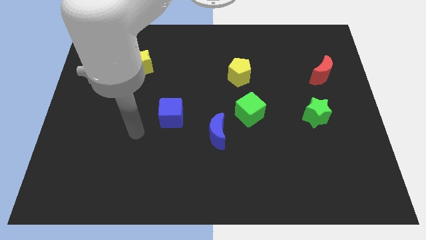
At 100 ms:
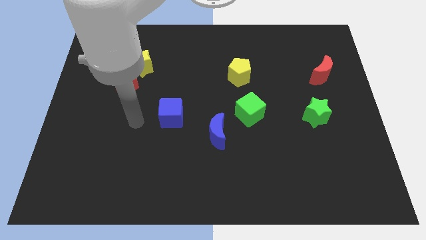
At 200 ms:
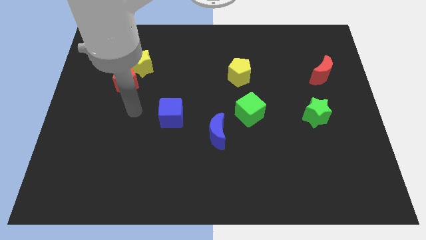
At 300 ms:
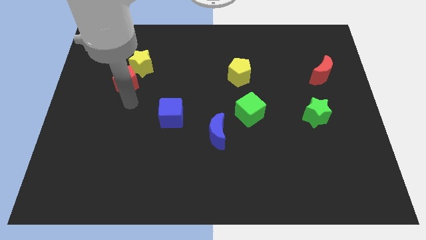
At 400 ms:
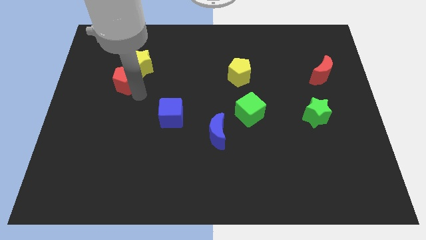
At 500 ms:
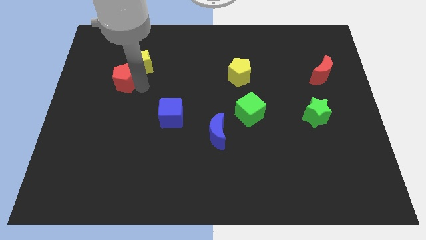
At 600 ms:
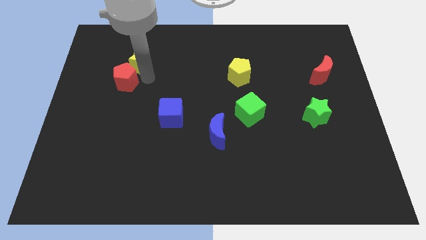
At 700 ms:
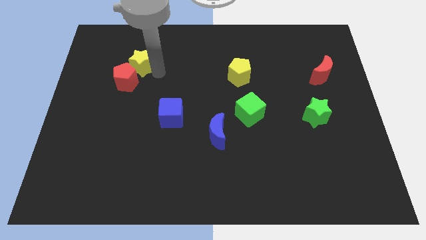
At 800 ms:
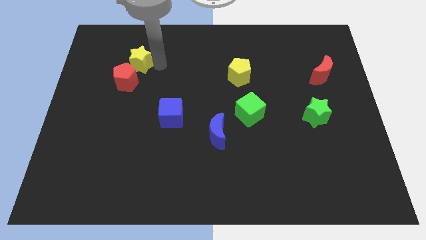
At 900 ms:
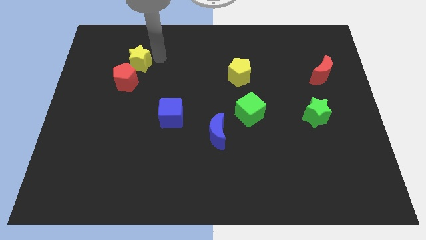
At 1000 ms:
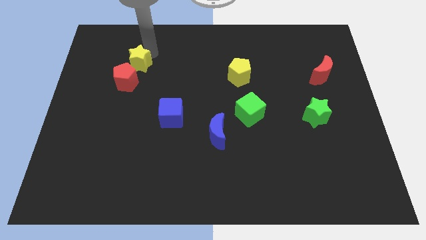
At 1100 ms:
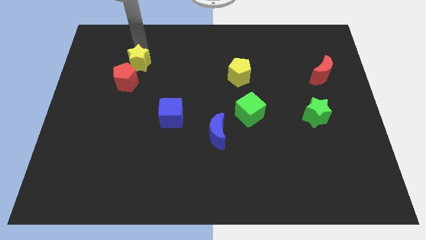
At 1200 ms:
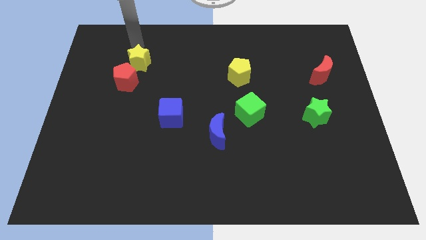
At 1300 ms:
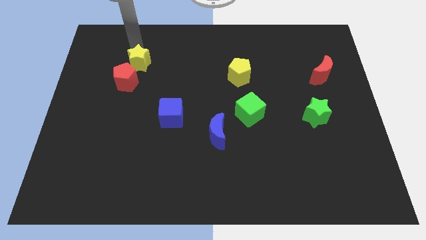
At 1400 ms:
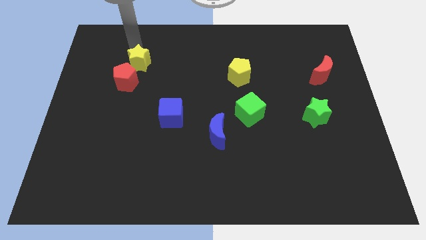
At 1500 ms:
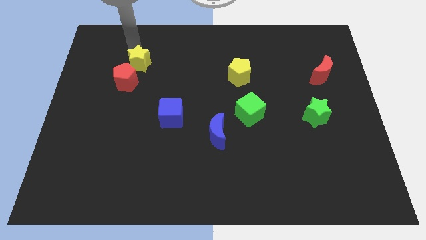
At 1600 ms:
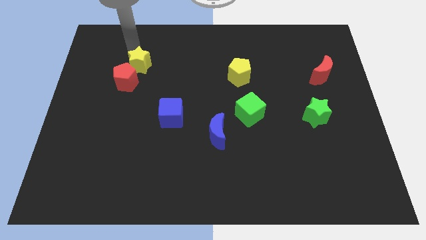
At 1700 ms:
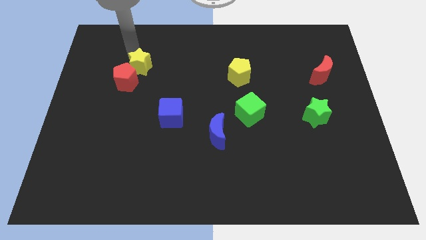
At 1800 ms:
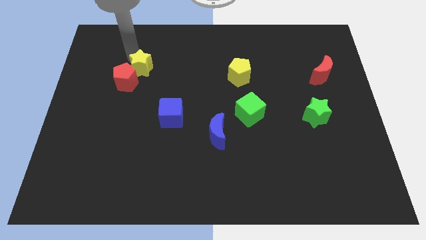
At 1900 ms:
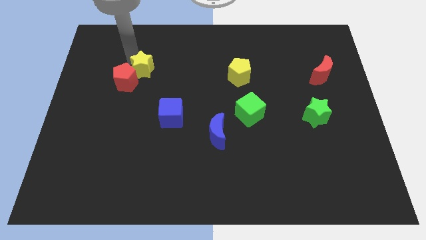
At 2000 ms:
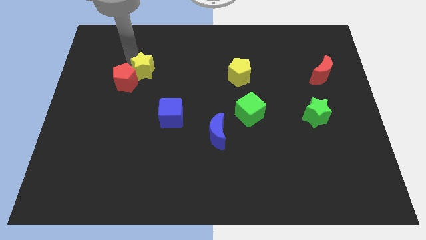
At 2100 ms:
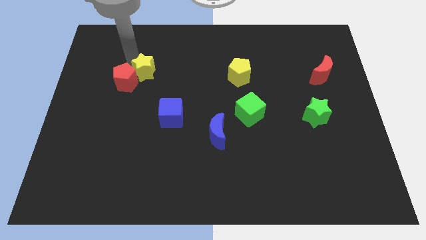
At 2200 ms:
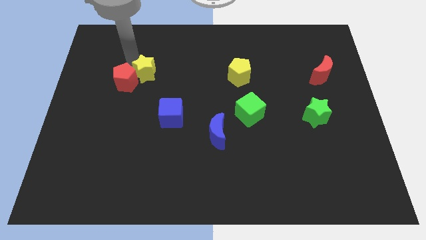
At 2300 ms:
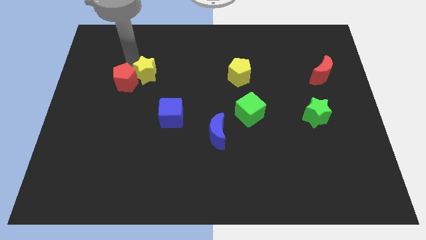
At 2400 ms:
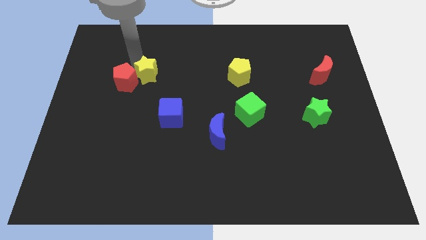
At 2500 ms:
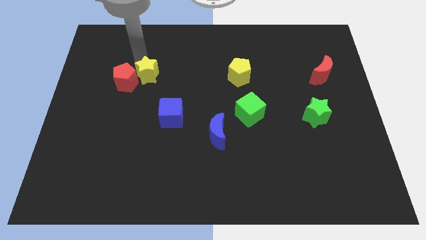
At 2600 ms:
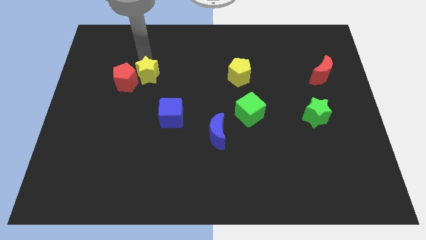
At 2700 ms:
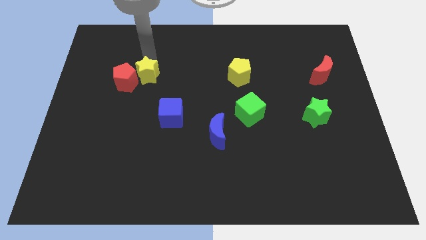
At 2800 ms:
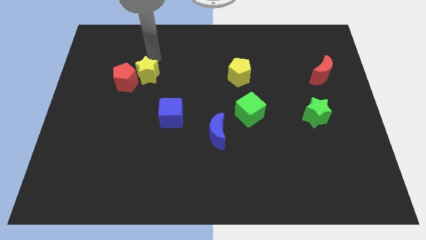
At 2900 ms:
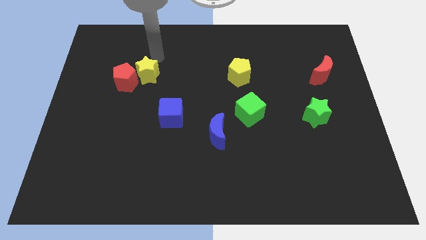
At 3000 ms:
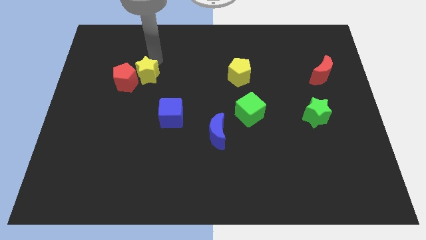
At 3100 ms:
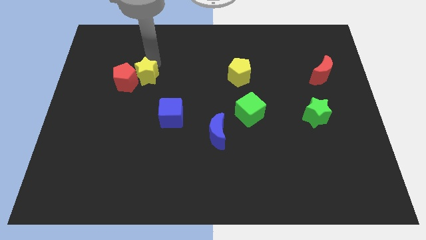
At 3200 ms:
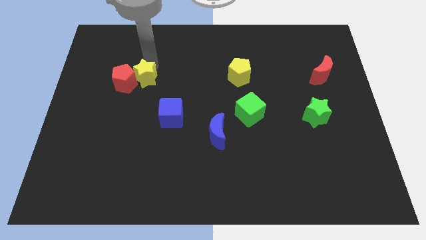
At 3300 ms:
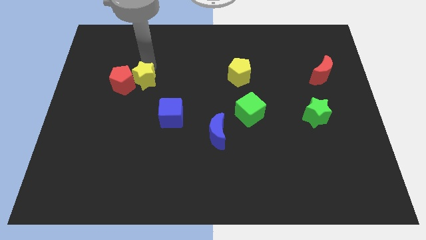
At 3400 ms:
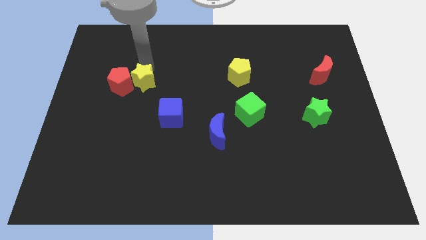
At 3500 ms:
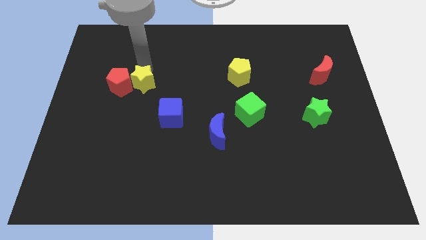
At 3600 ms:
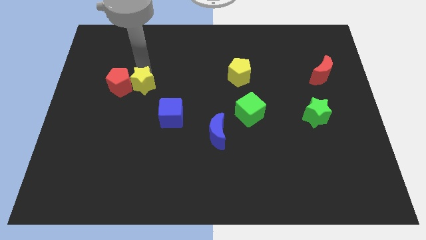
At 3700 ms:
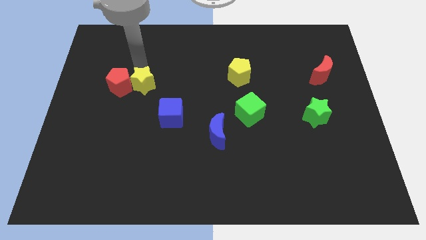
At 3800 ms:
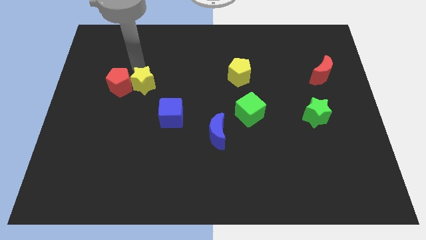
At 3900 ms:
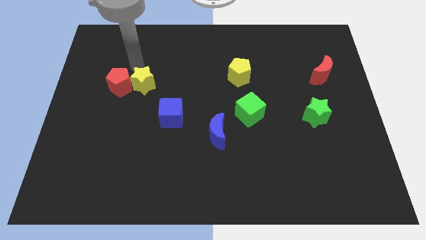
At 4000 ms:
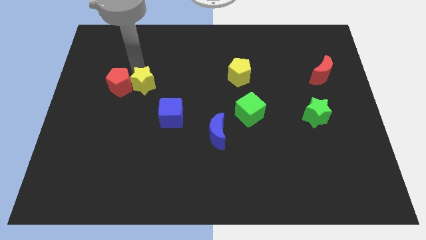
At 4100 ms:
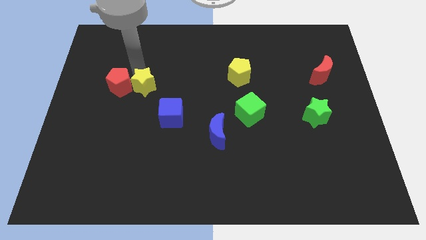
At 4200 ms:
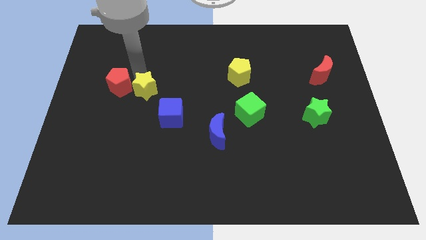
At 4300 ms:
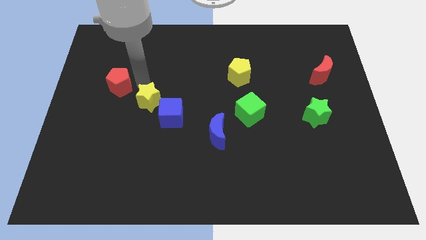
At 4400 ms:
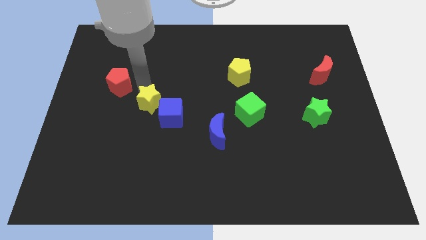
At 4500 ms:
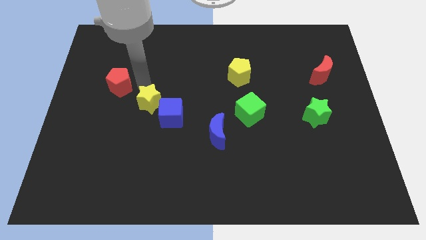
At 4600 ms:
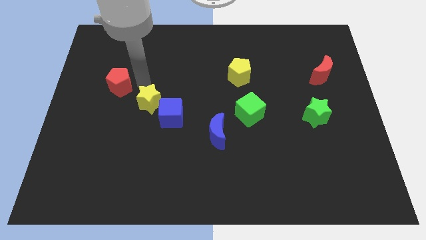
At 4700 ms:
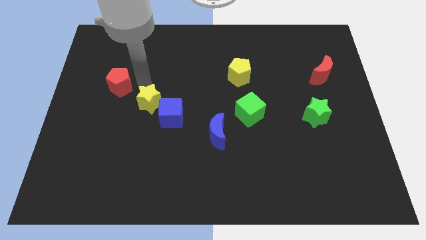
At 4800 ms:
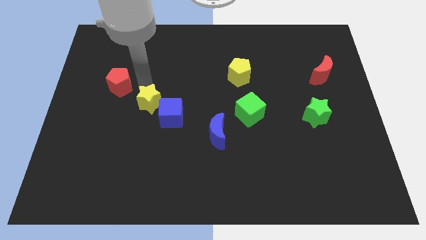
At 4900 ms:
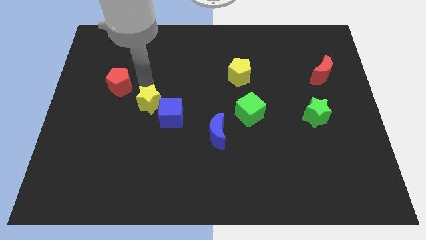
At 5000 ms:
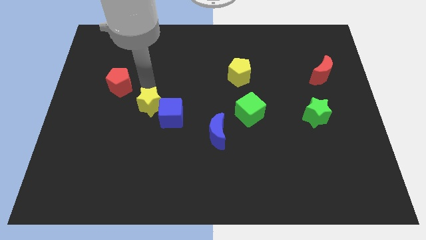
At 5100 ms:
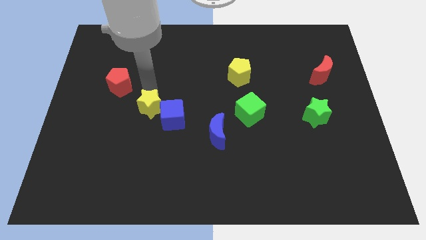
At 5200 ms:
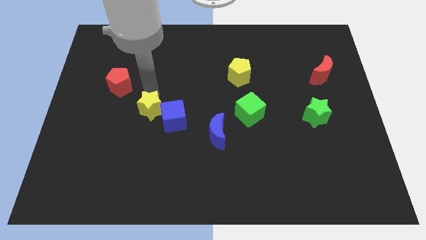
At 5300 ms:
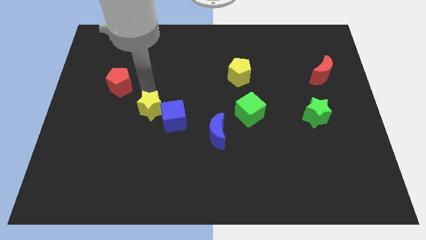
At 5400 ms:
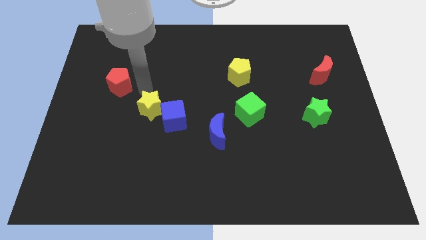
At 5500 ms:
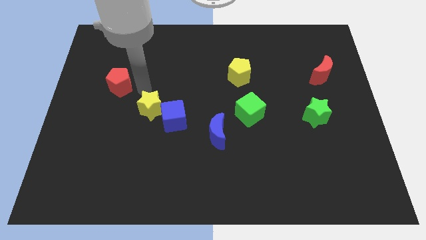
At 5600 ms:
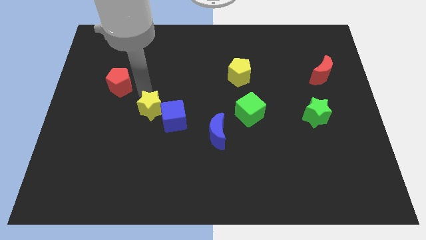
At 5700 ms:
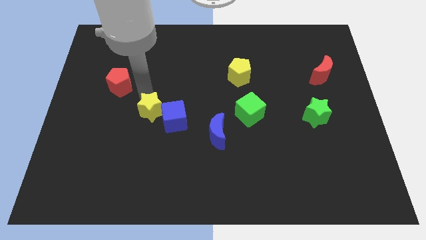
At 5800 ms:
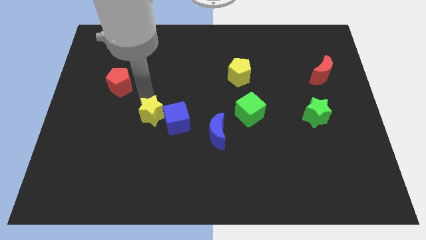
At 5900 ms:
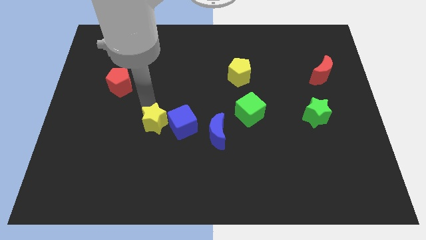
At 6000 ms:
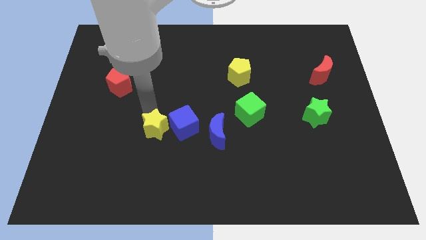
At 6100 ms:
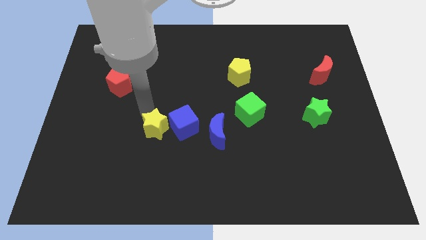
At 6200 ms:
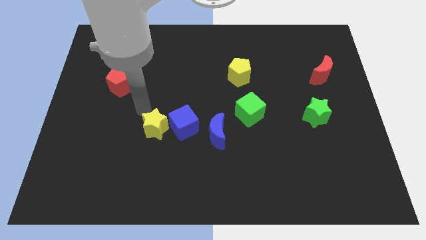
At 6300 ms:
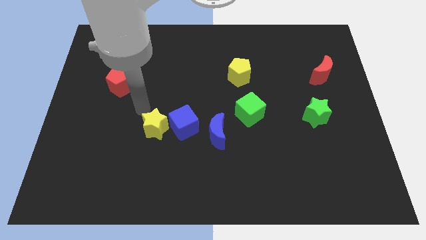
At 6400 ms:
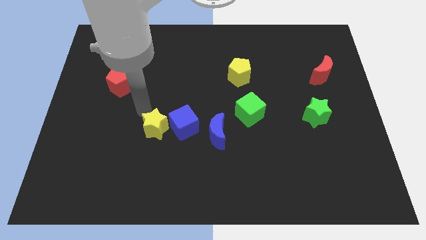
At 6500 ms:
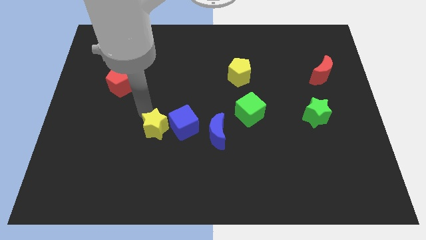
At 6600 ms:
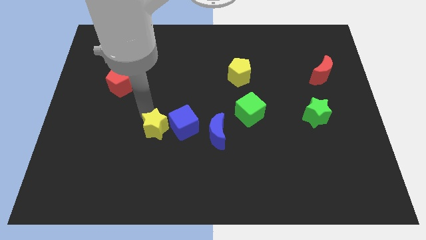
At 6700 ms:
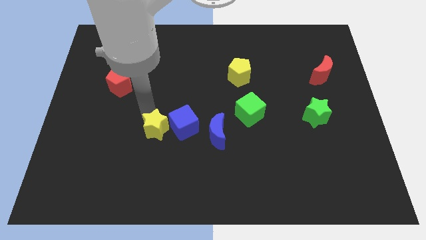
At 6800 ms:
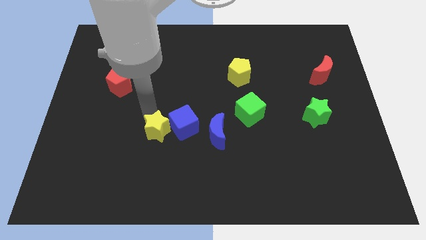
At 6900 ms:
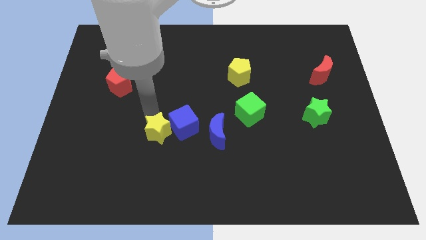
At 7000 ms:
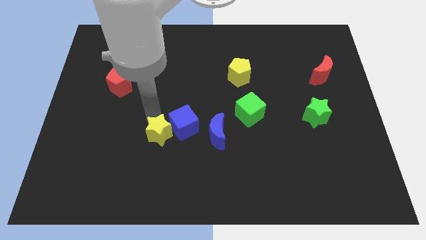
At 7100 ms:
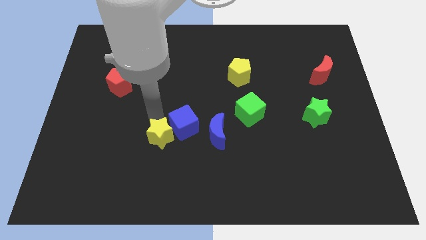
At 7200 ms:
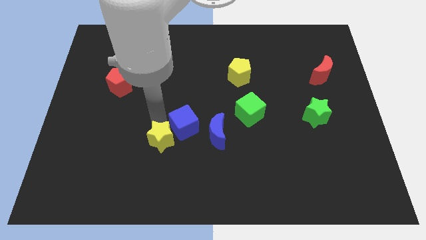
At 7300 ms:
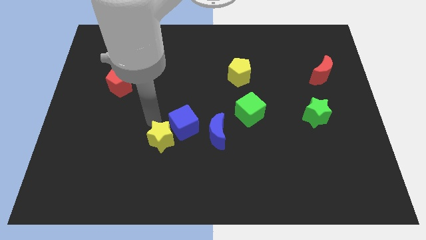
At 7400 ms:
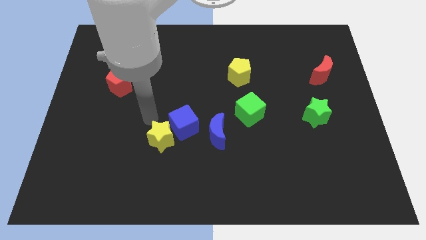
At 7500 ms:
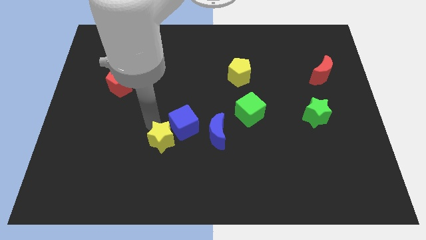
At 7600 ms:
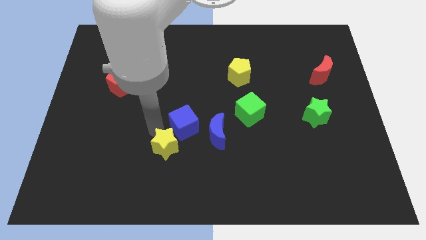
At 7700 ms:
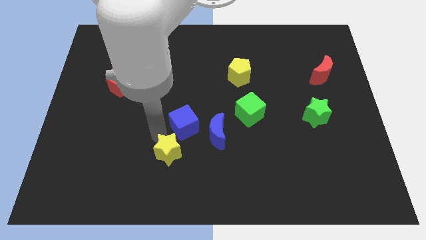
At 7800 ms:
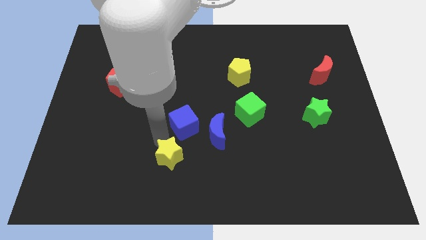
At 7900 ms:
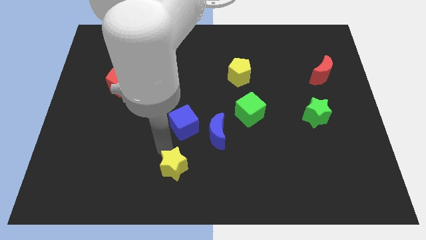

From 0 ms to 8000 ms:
slide the yellow star to the bottom
